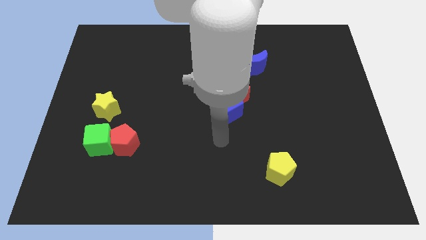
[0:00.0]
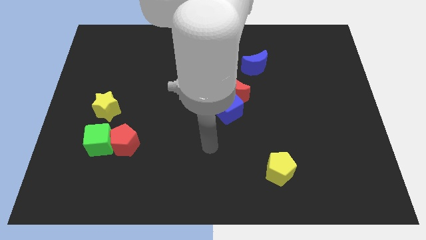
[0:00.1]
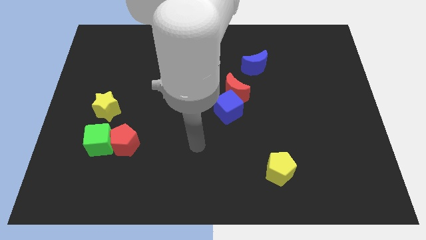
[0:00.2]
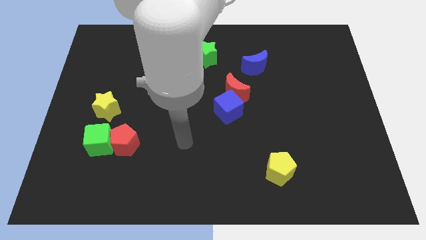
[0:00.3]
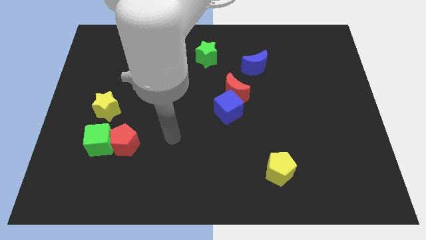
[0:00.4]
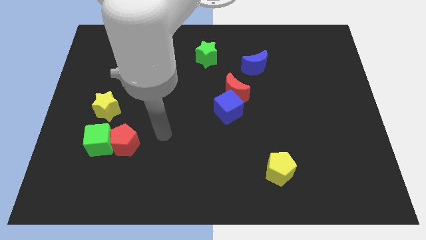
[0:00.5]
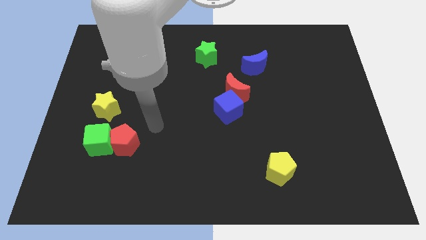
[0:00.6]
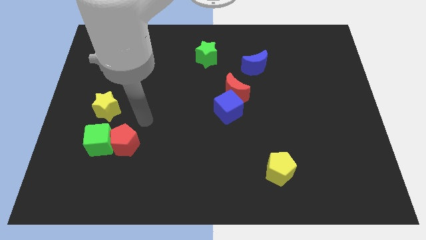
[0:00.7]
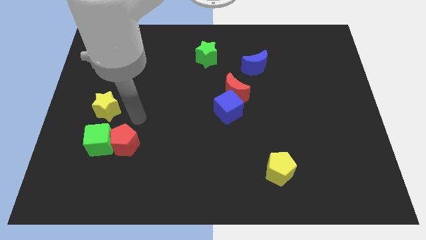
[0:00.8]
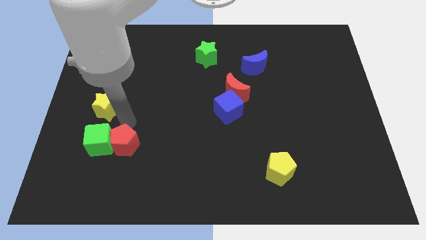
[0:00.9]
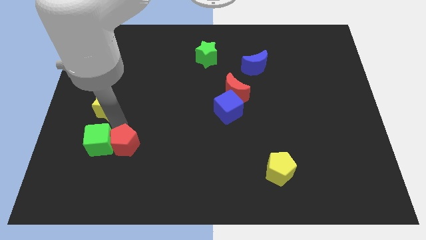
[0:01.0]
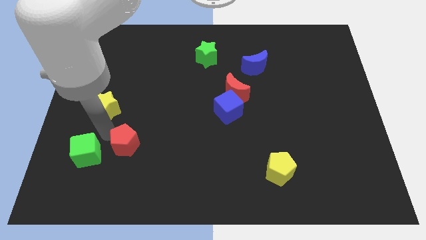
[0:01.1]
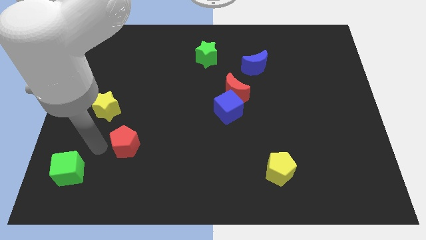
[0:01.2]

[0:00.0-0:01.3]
pull the red pentagon apart from the green cube

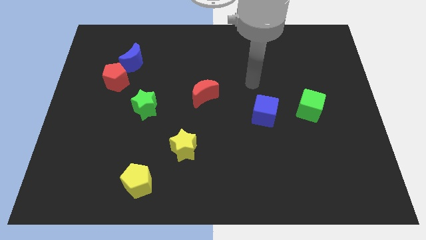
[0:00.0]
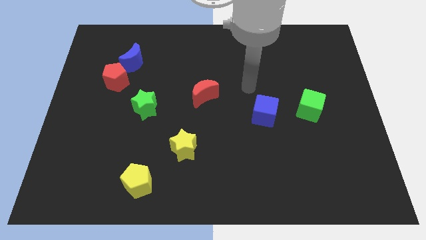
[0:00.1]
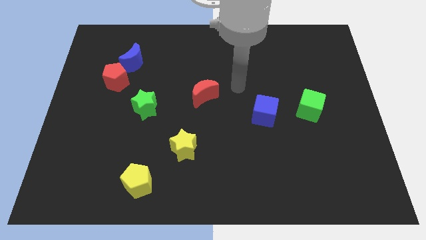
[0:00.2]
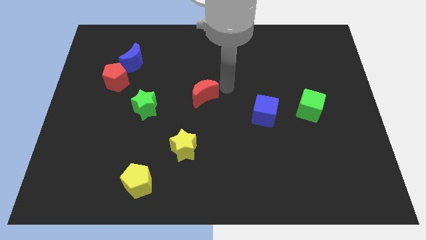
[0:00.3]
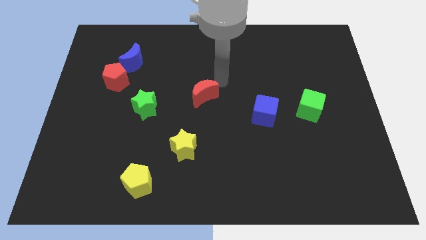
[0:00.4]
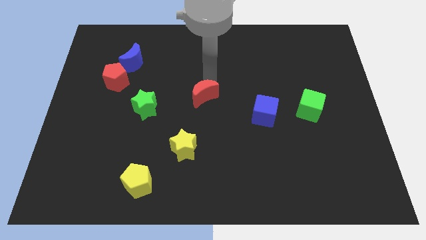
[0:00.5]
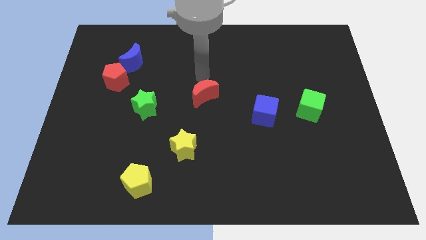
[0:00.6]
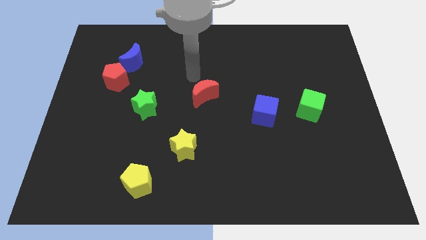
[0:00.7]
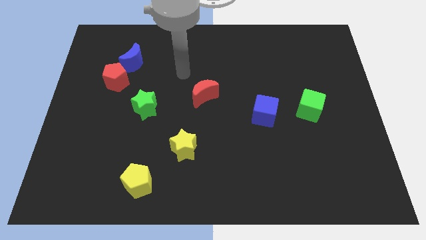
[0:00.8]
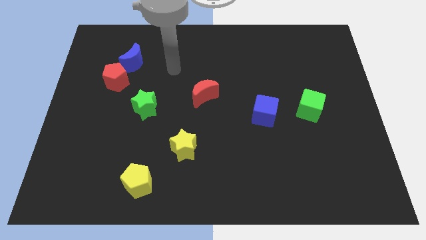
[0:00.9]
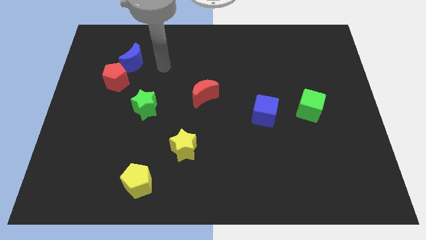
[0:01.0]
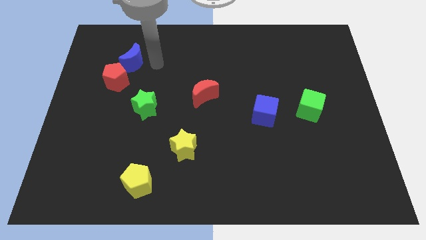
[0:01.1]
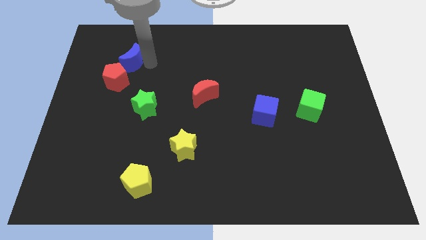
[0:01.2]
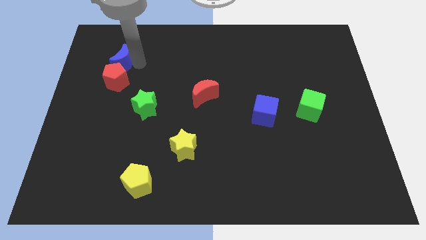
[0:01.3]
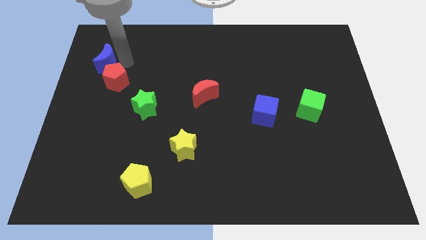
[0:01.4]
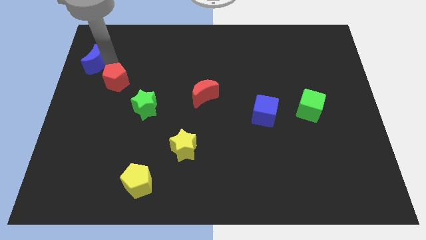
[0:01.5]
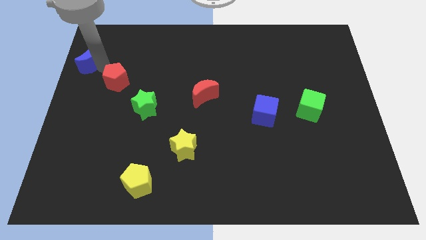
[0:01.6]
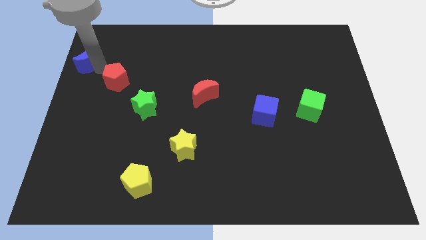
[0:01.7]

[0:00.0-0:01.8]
move the red pentagon away from the blue moon

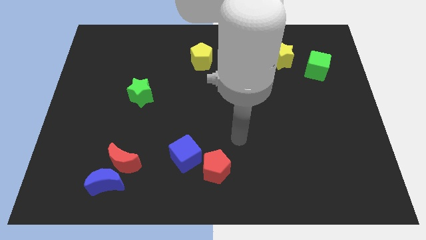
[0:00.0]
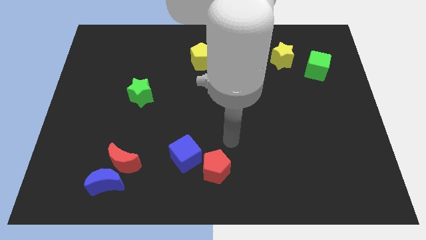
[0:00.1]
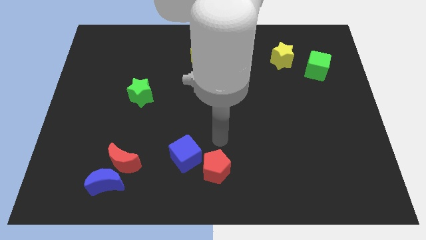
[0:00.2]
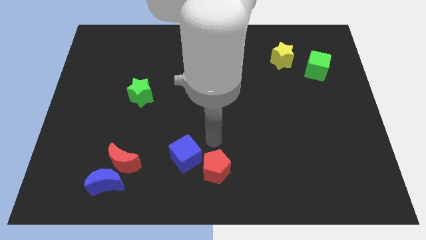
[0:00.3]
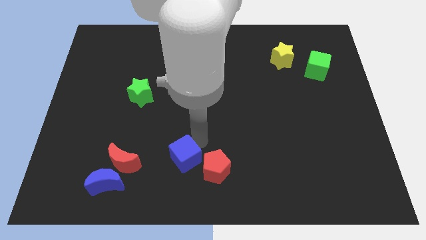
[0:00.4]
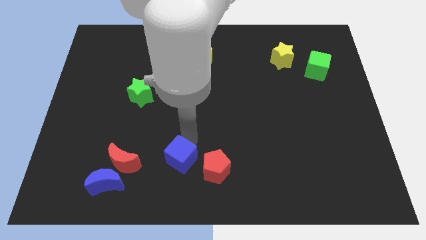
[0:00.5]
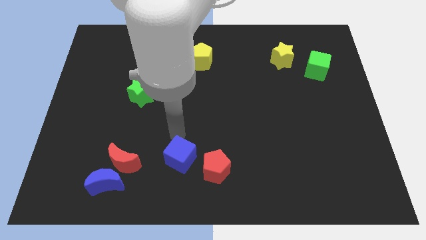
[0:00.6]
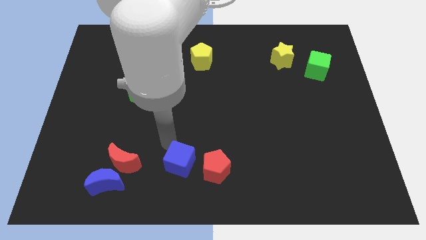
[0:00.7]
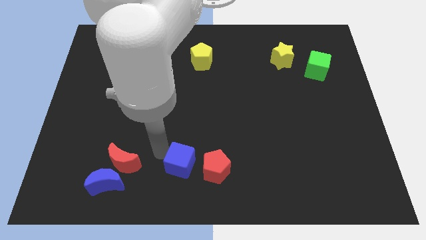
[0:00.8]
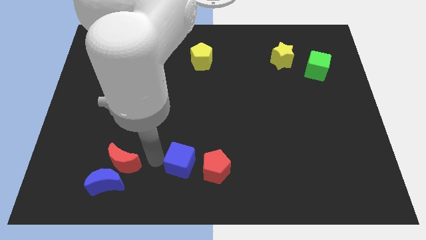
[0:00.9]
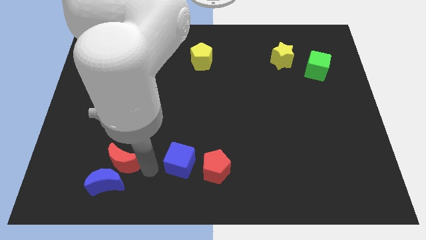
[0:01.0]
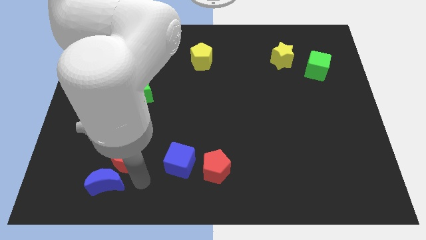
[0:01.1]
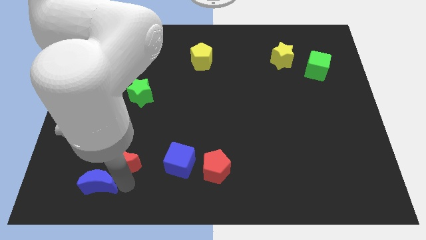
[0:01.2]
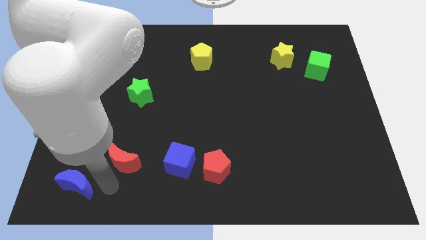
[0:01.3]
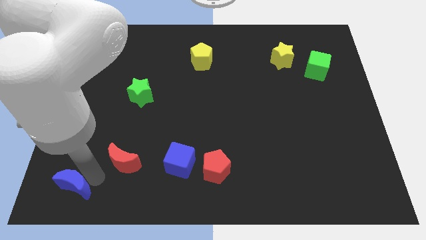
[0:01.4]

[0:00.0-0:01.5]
separate the red moon from the blue moon

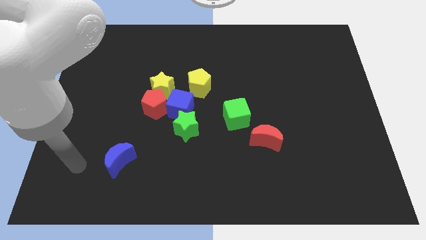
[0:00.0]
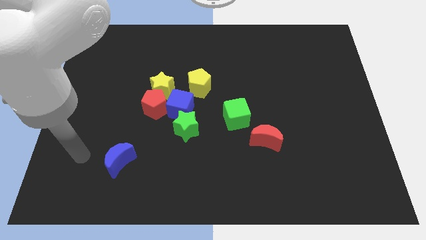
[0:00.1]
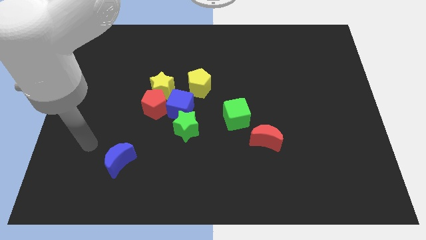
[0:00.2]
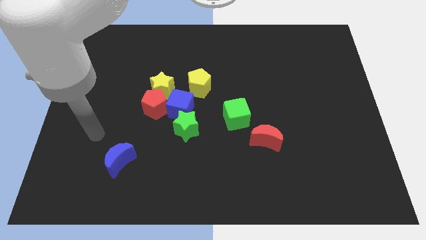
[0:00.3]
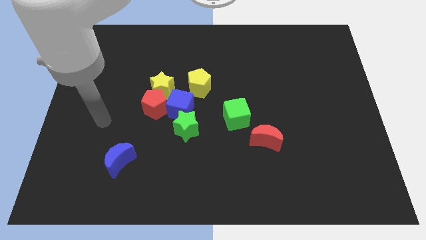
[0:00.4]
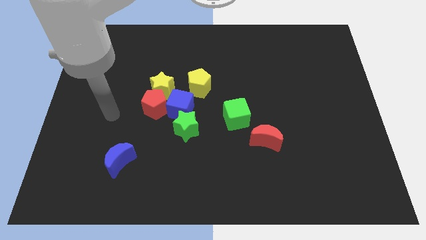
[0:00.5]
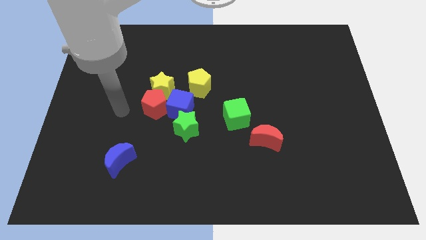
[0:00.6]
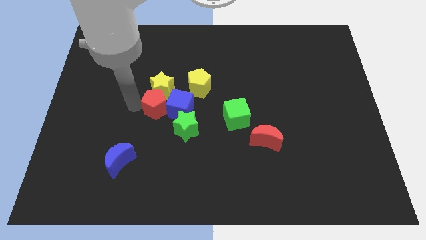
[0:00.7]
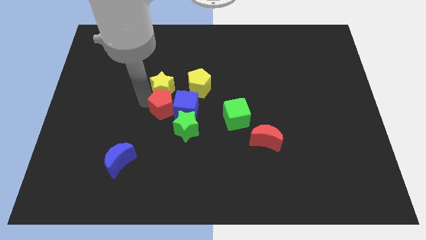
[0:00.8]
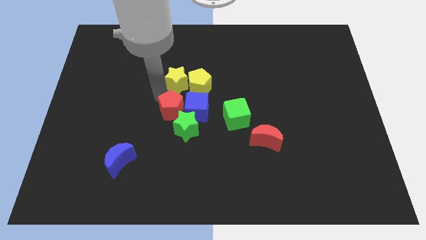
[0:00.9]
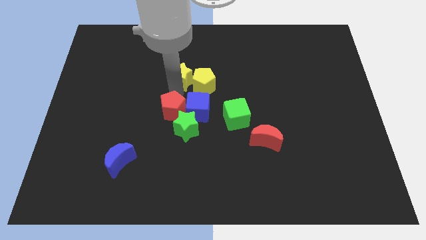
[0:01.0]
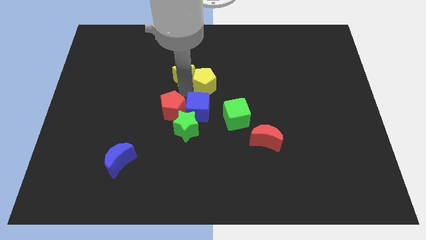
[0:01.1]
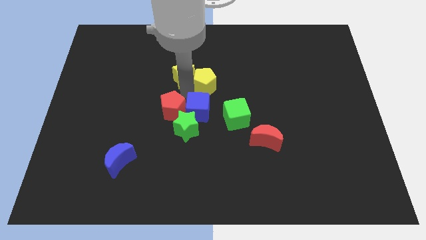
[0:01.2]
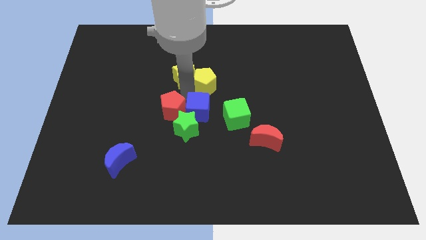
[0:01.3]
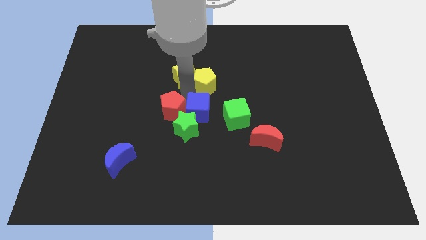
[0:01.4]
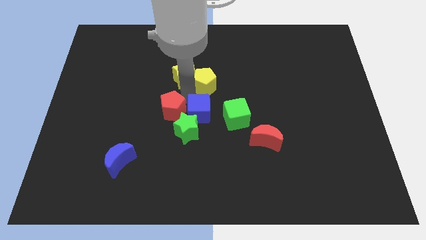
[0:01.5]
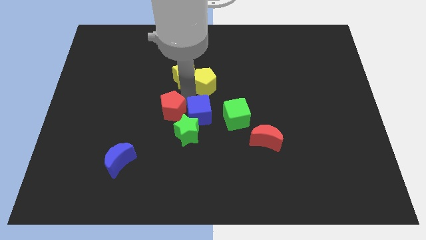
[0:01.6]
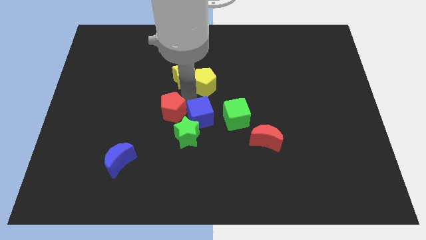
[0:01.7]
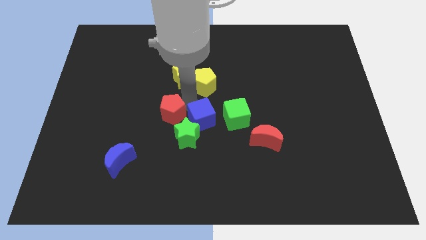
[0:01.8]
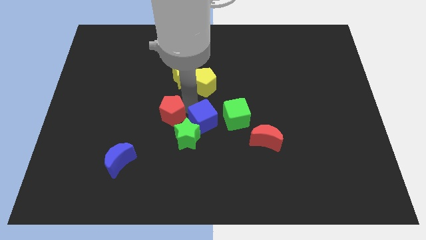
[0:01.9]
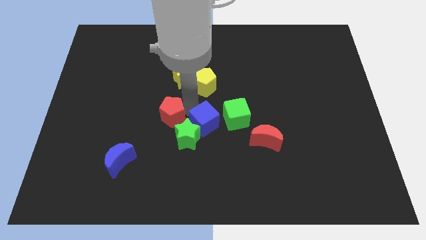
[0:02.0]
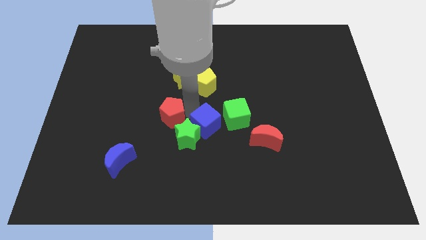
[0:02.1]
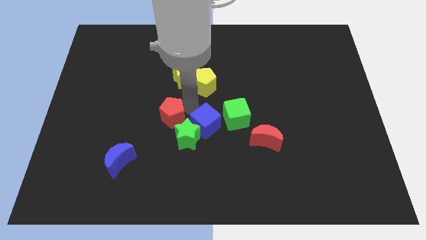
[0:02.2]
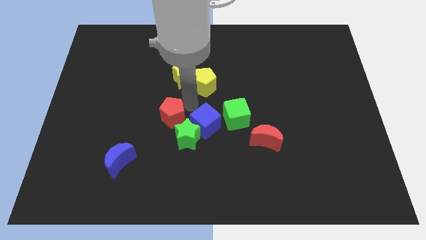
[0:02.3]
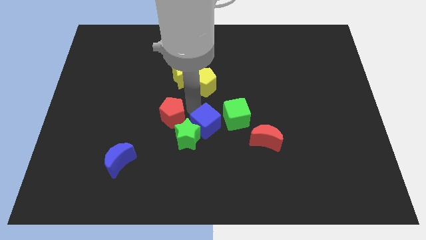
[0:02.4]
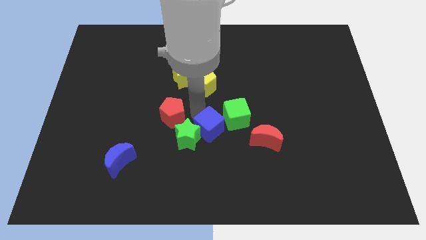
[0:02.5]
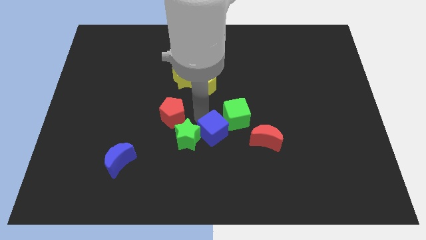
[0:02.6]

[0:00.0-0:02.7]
move the blue cube away from the group

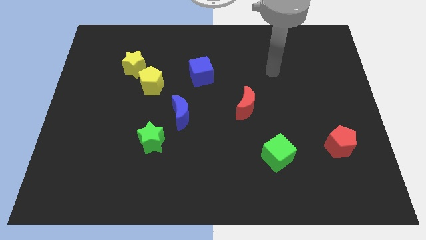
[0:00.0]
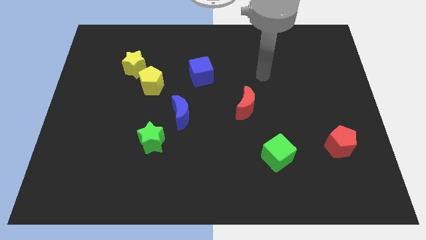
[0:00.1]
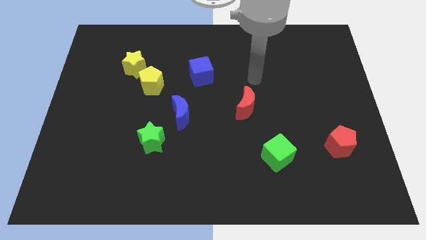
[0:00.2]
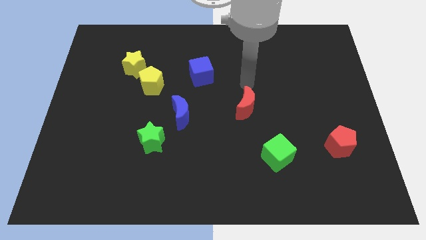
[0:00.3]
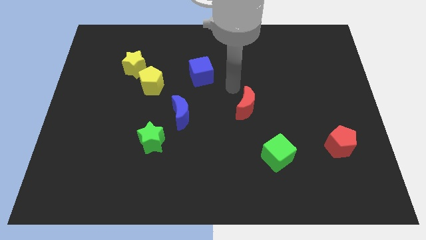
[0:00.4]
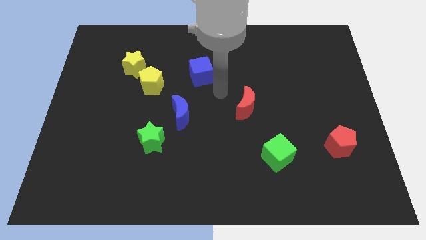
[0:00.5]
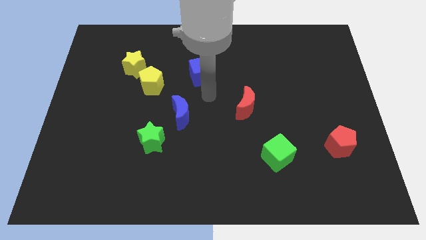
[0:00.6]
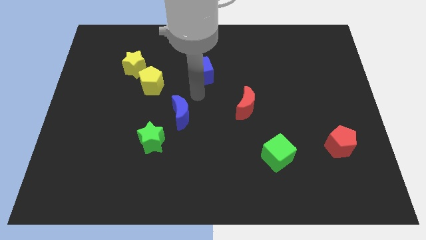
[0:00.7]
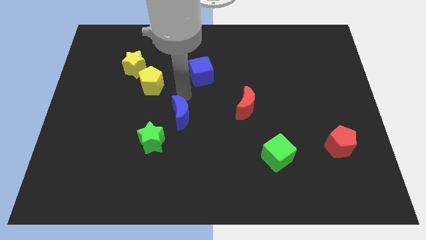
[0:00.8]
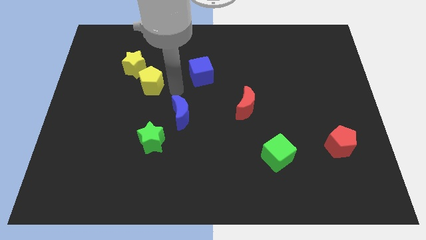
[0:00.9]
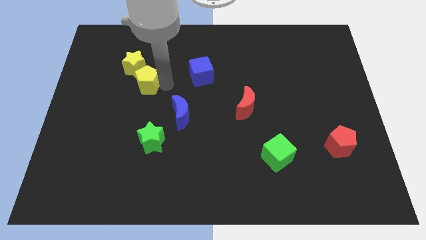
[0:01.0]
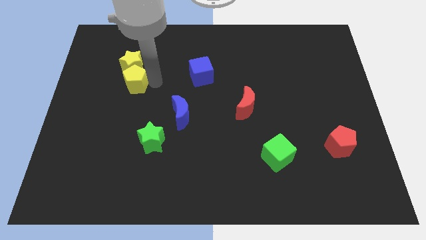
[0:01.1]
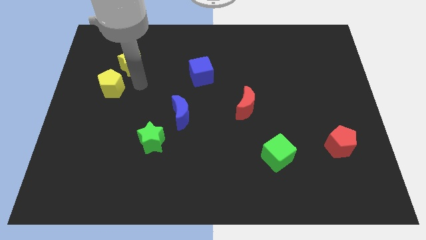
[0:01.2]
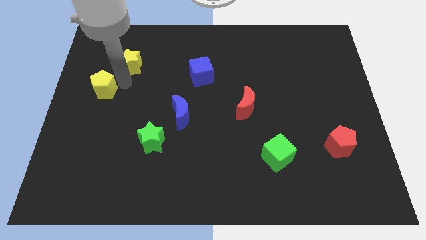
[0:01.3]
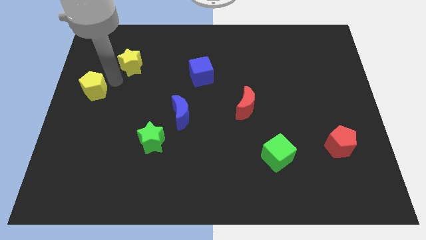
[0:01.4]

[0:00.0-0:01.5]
move the yellow star away from the yellow pentagon

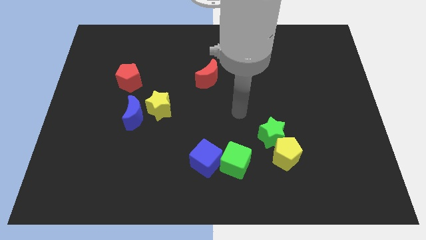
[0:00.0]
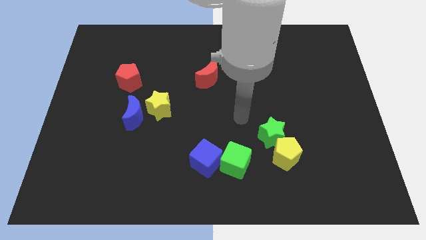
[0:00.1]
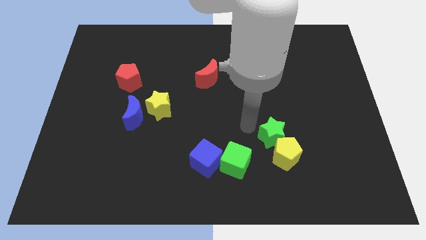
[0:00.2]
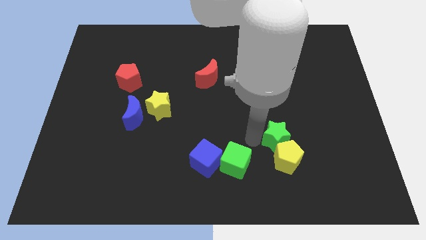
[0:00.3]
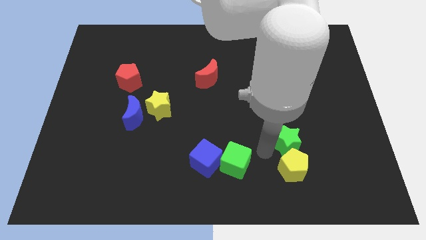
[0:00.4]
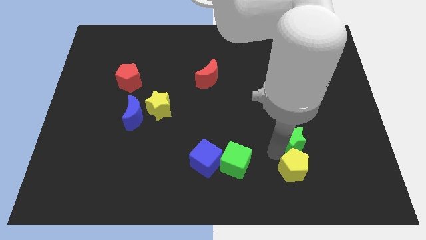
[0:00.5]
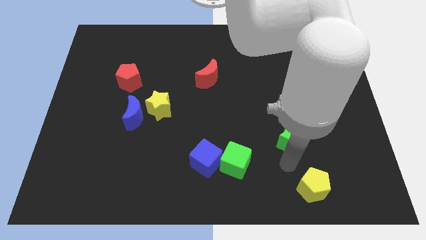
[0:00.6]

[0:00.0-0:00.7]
separate the green star from the yellow pentagon
